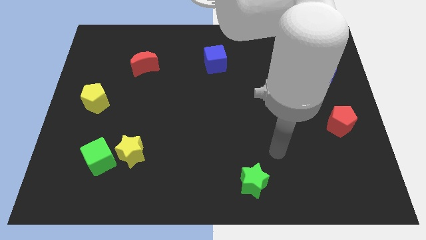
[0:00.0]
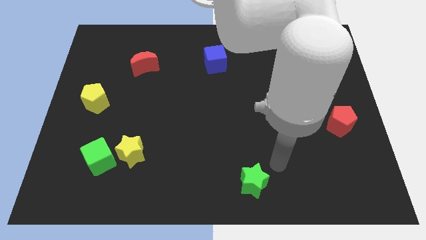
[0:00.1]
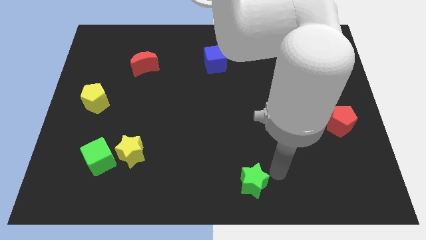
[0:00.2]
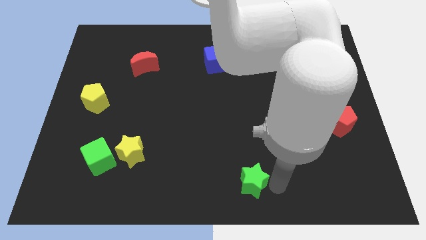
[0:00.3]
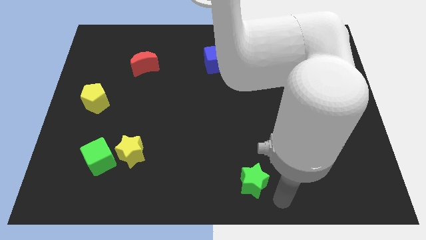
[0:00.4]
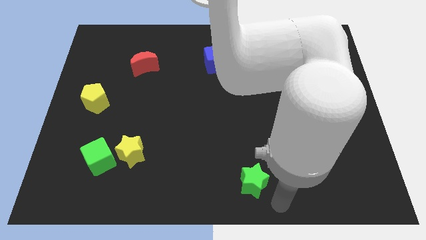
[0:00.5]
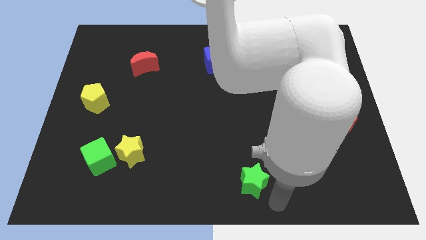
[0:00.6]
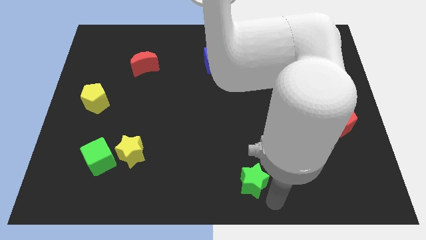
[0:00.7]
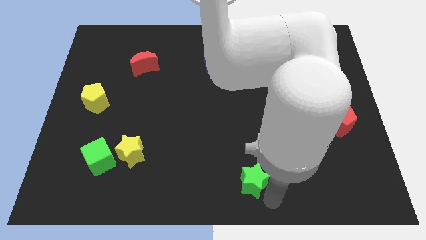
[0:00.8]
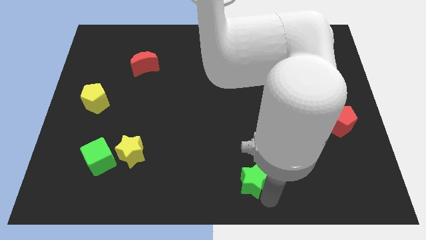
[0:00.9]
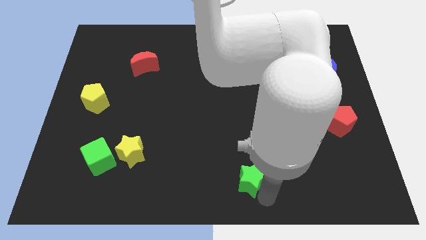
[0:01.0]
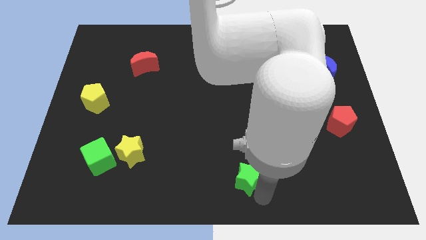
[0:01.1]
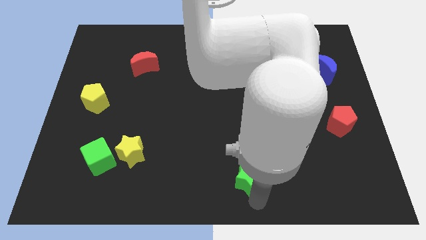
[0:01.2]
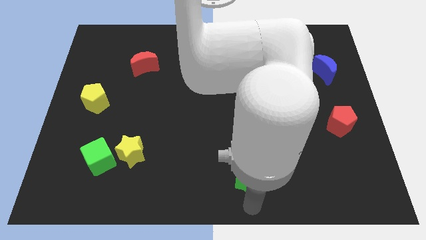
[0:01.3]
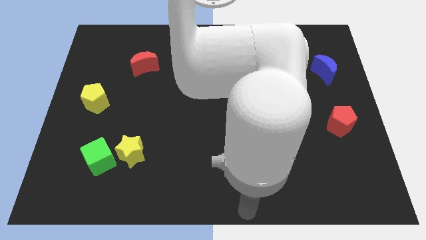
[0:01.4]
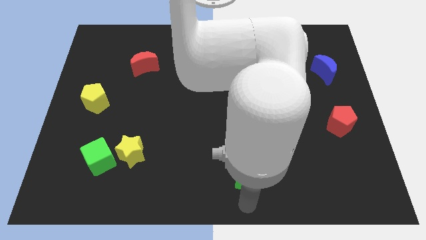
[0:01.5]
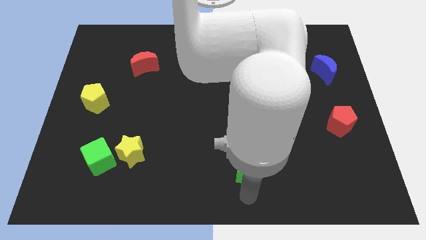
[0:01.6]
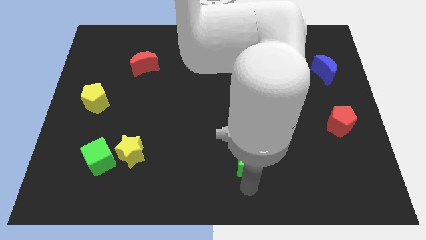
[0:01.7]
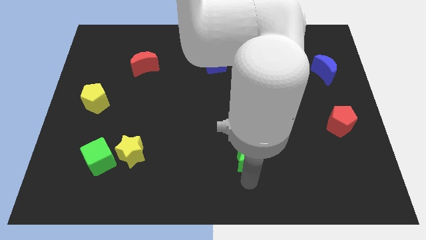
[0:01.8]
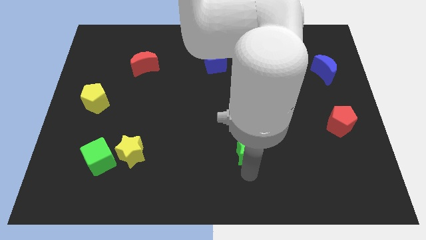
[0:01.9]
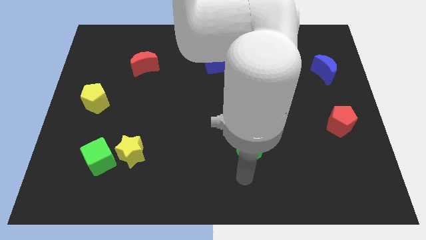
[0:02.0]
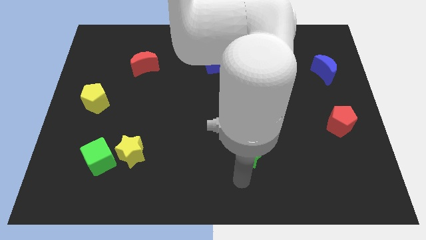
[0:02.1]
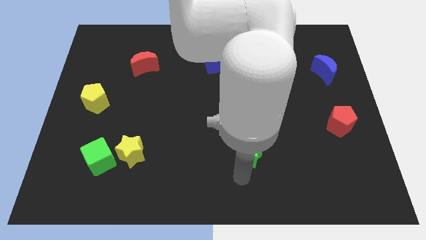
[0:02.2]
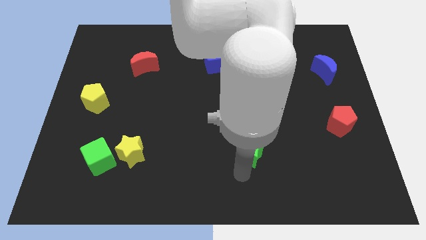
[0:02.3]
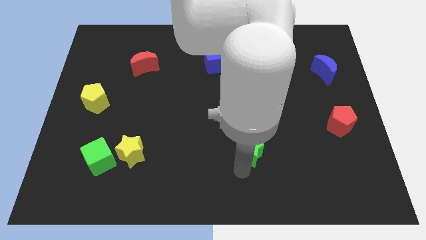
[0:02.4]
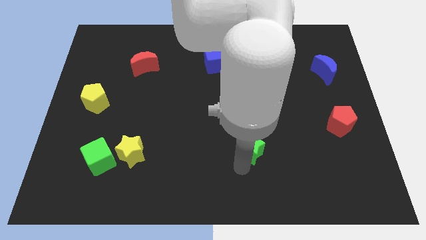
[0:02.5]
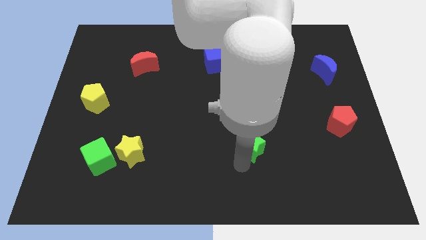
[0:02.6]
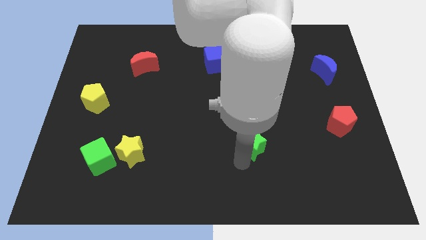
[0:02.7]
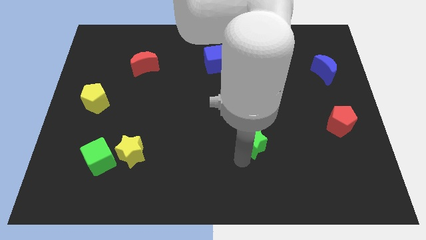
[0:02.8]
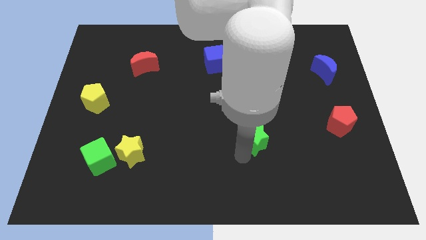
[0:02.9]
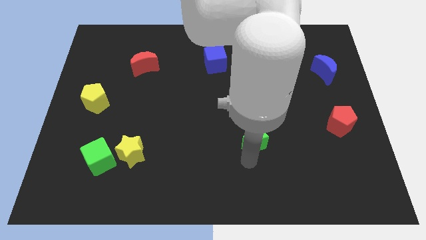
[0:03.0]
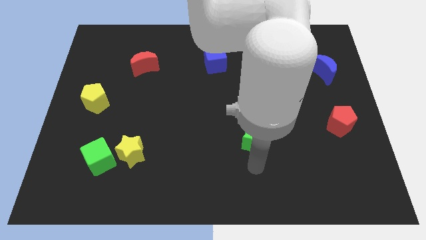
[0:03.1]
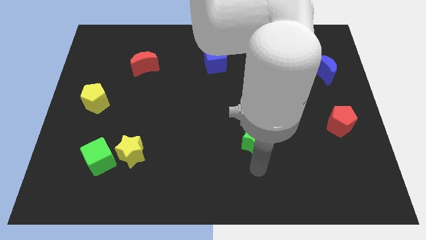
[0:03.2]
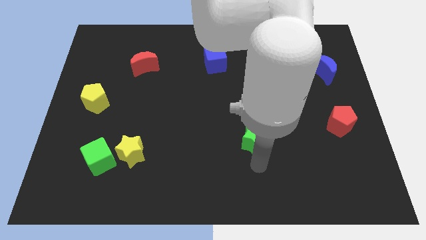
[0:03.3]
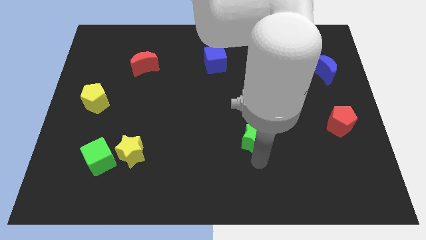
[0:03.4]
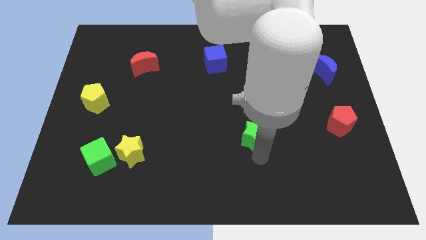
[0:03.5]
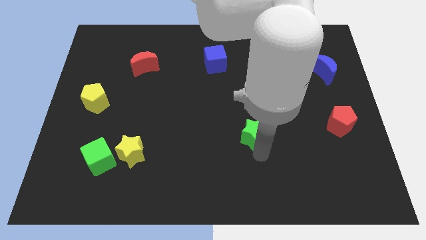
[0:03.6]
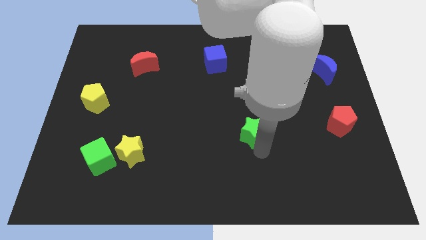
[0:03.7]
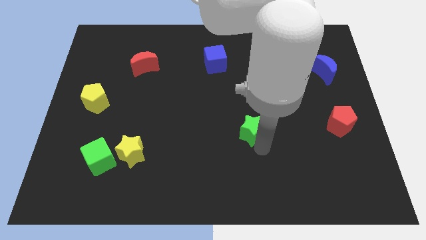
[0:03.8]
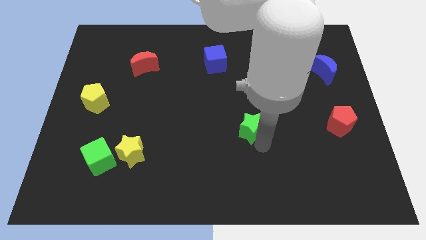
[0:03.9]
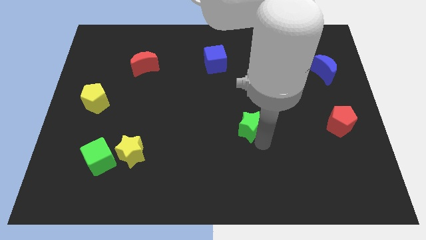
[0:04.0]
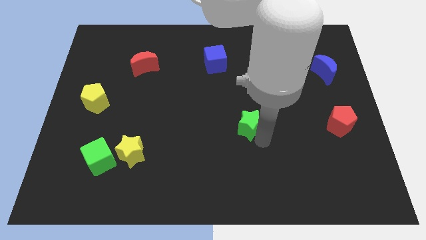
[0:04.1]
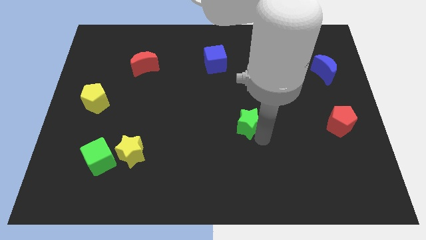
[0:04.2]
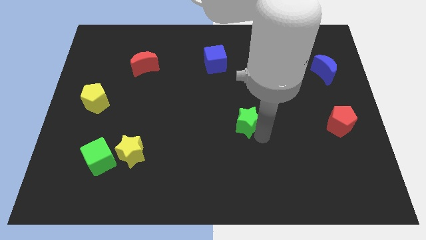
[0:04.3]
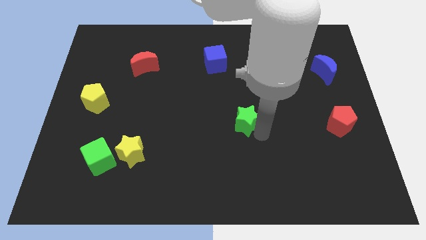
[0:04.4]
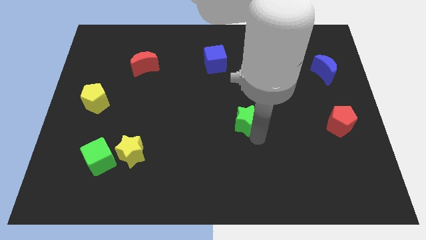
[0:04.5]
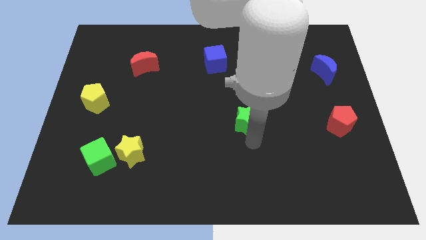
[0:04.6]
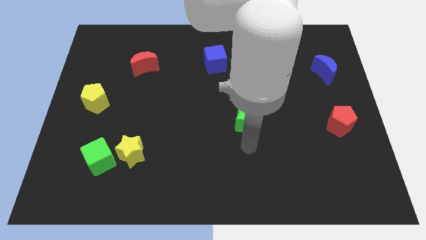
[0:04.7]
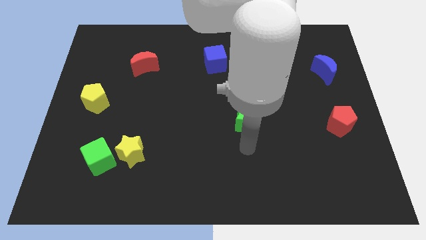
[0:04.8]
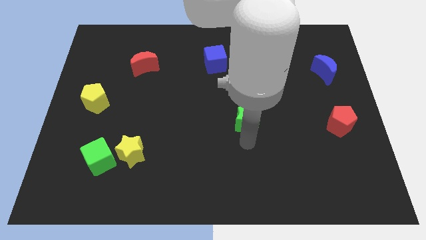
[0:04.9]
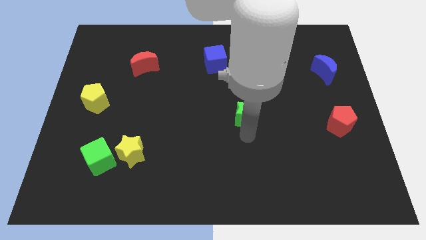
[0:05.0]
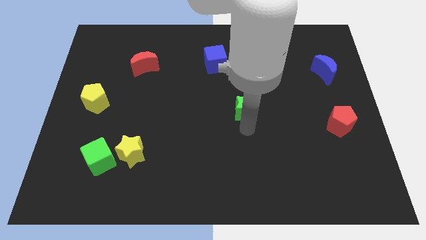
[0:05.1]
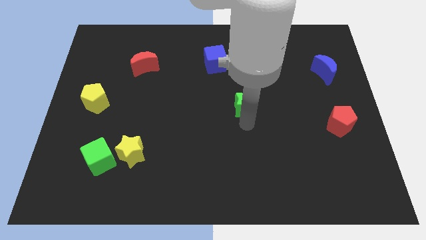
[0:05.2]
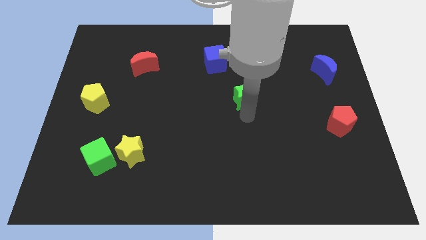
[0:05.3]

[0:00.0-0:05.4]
move the green star up

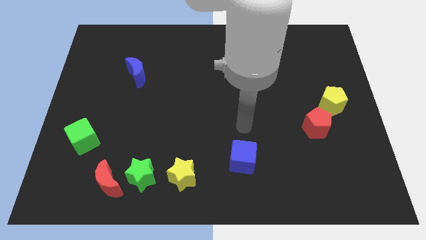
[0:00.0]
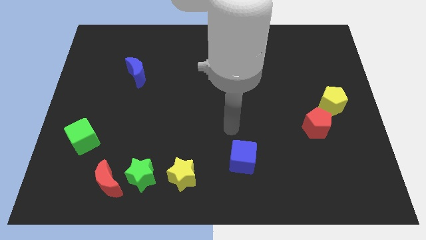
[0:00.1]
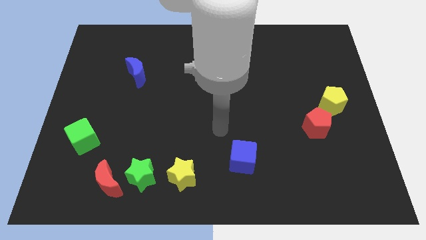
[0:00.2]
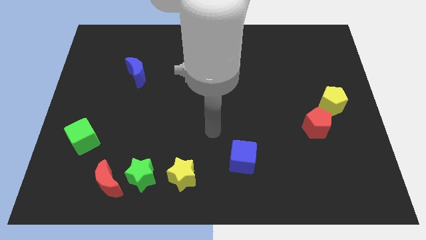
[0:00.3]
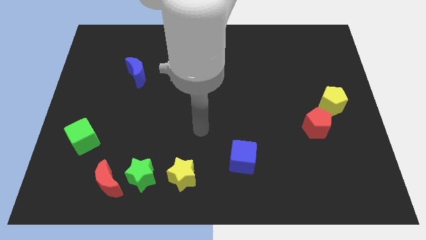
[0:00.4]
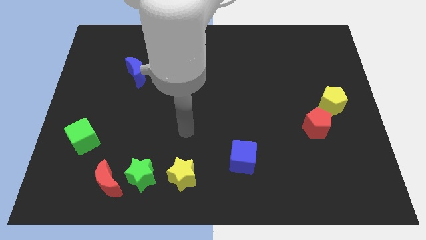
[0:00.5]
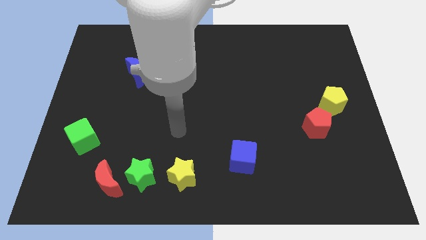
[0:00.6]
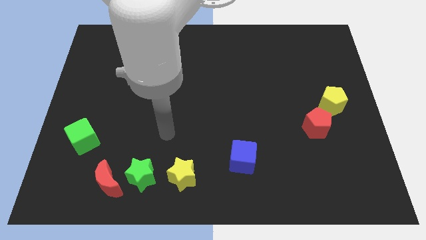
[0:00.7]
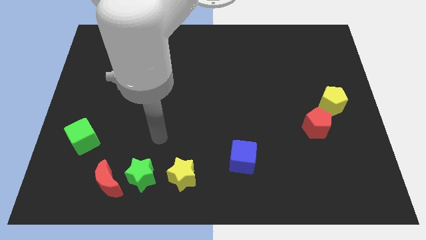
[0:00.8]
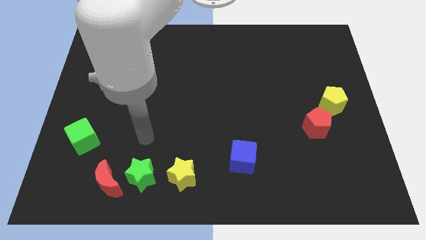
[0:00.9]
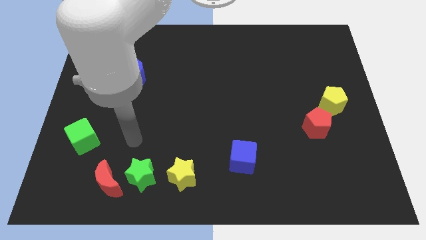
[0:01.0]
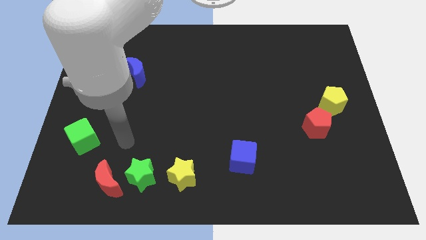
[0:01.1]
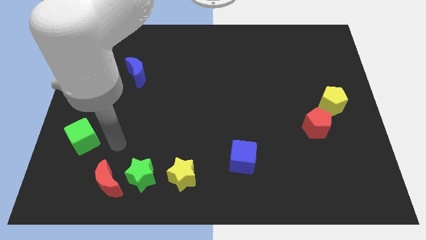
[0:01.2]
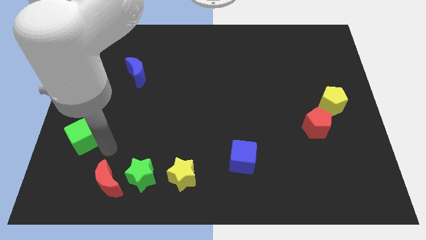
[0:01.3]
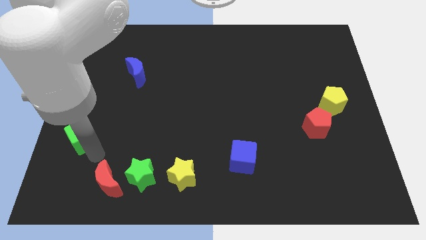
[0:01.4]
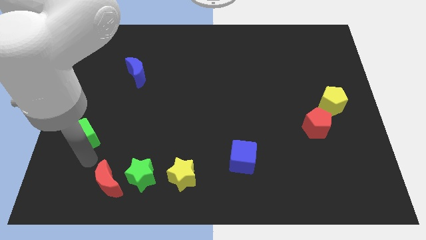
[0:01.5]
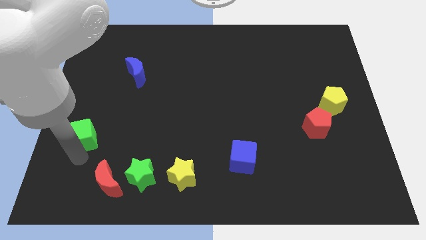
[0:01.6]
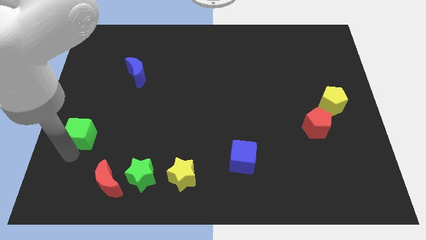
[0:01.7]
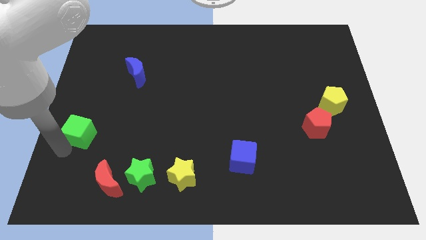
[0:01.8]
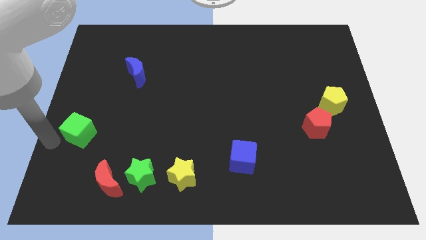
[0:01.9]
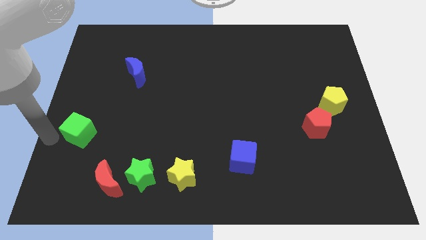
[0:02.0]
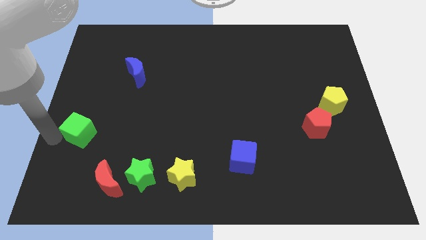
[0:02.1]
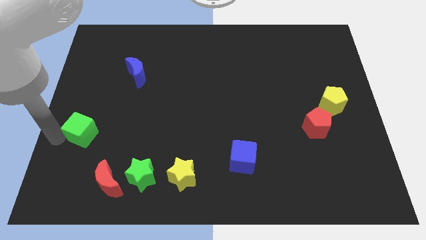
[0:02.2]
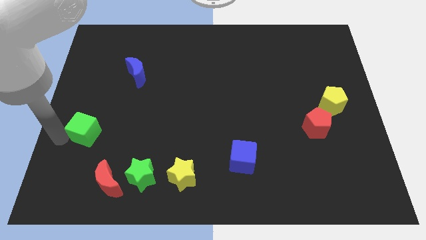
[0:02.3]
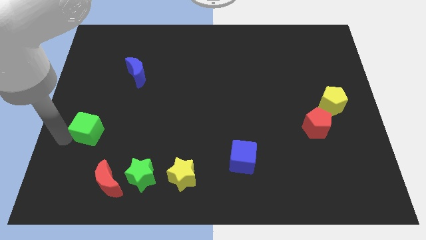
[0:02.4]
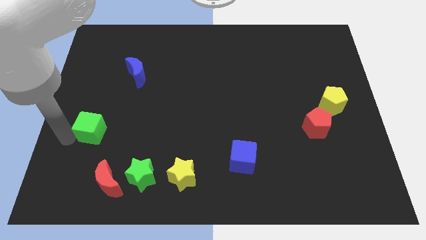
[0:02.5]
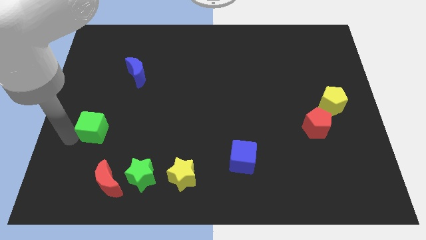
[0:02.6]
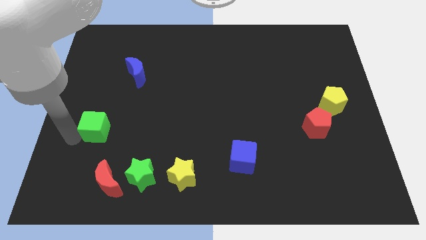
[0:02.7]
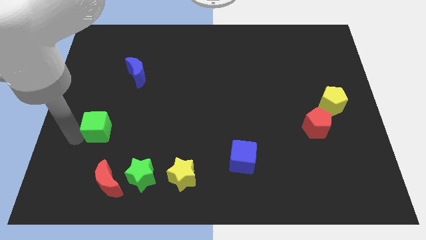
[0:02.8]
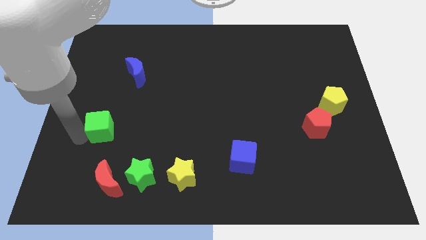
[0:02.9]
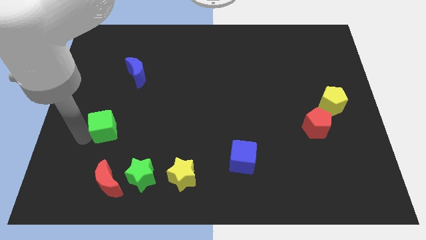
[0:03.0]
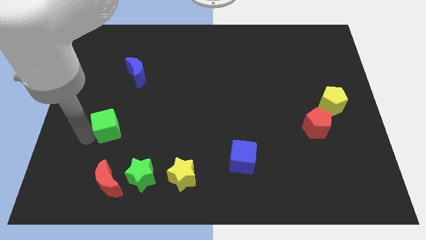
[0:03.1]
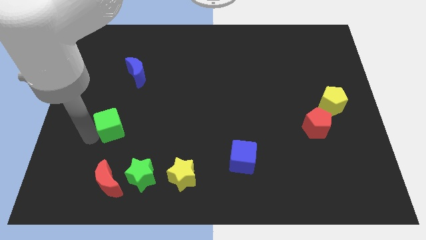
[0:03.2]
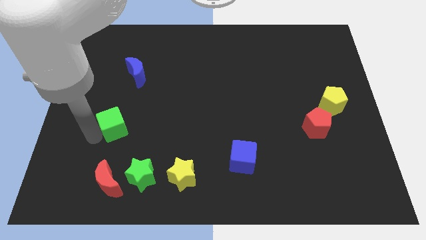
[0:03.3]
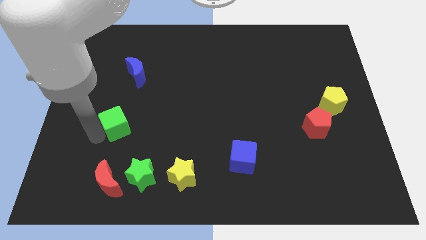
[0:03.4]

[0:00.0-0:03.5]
slide the green cube diagonally upwards and to the right a little
